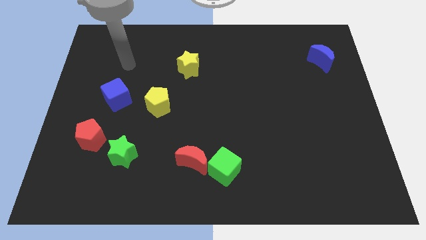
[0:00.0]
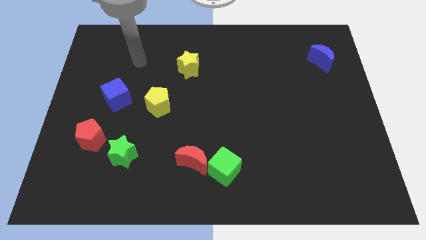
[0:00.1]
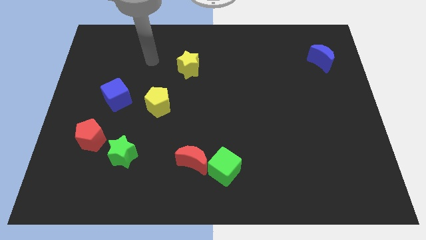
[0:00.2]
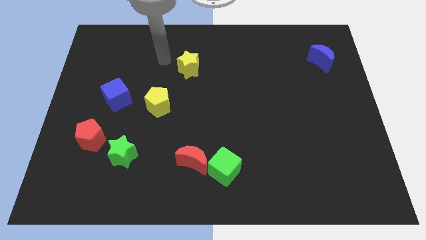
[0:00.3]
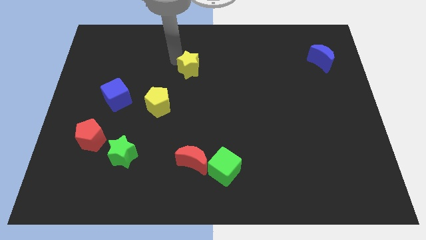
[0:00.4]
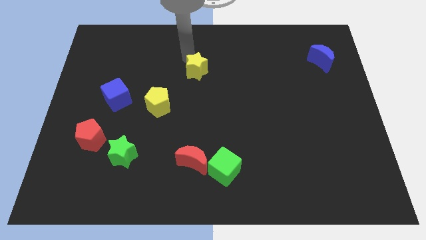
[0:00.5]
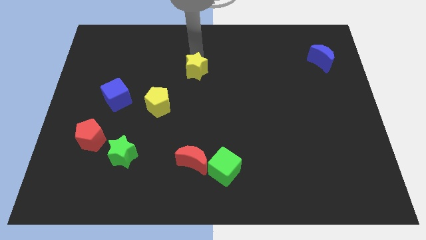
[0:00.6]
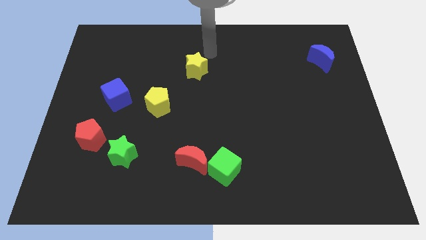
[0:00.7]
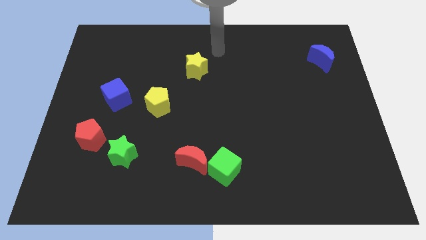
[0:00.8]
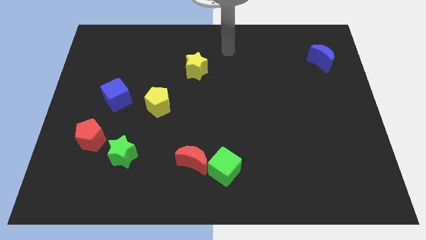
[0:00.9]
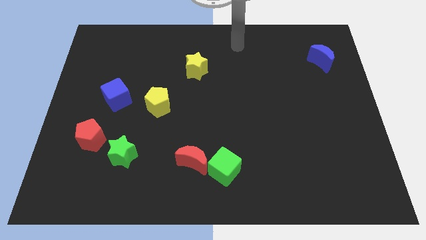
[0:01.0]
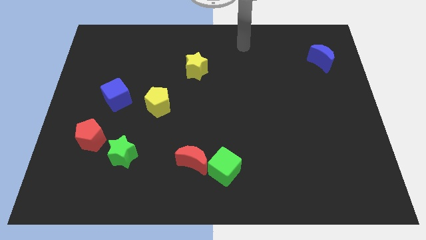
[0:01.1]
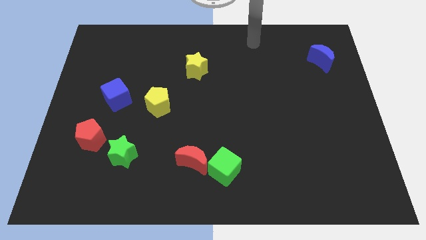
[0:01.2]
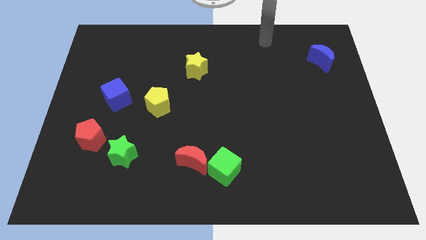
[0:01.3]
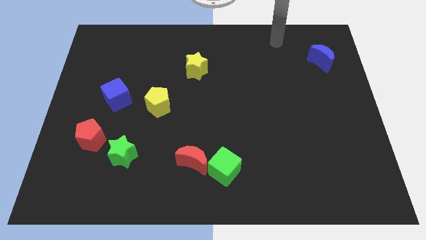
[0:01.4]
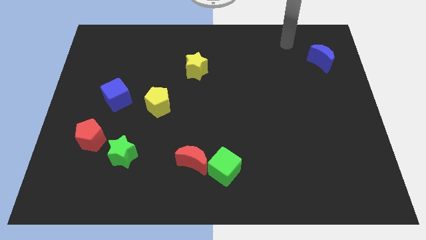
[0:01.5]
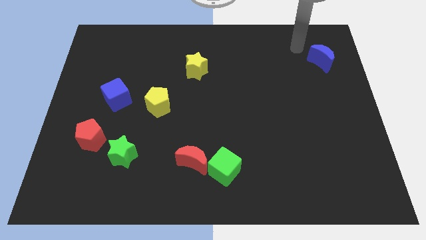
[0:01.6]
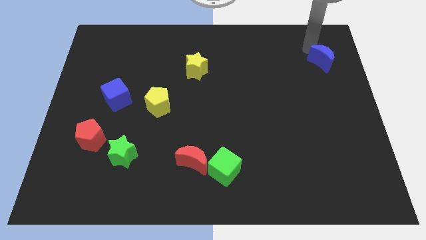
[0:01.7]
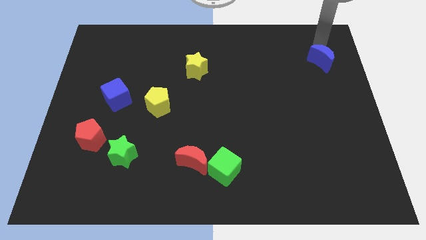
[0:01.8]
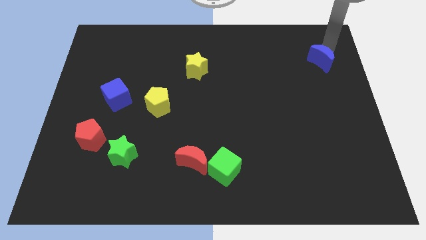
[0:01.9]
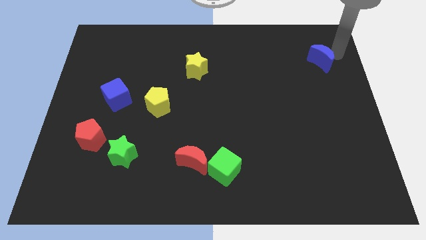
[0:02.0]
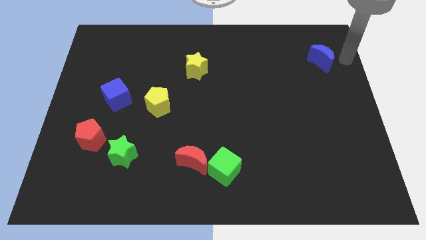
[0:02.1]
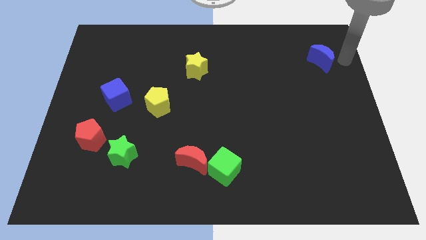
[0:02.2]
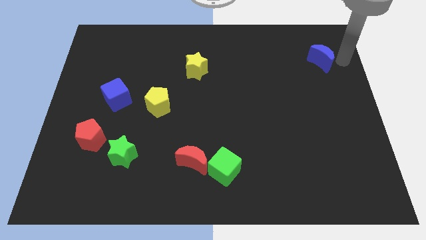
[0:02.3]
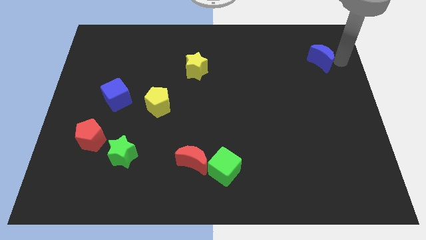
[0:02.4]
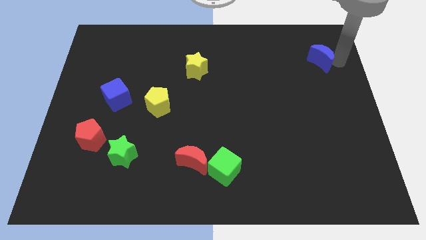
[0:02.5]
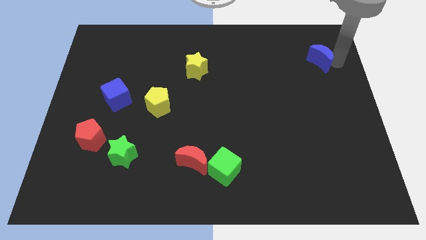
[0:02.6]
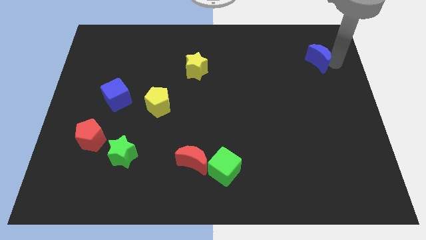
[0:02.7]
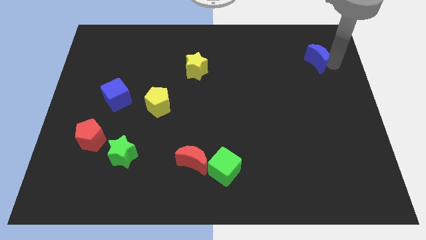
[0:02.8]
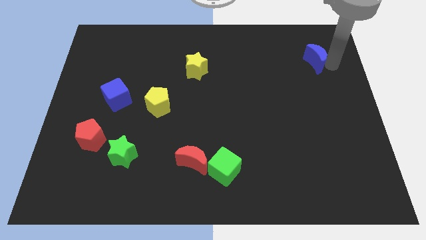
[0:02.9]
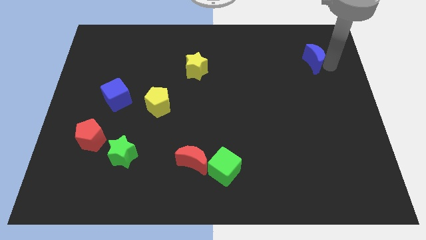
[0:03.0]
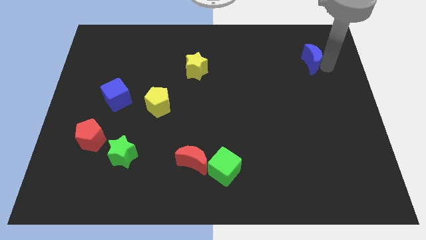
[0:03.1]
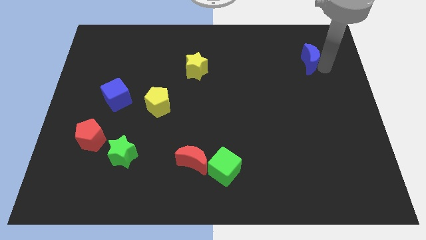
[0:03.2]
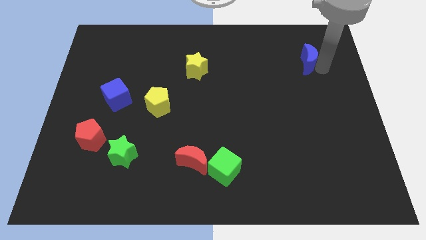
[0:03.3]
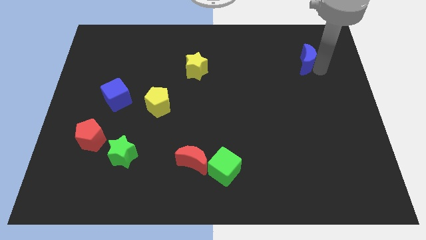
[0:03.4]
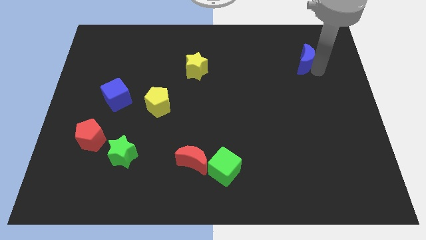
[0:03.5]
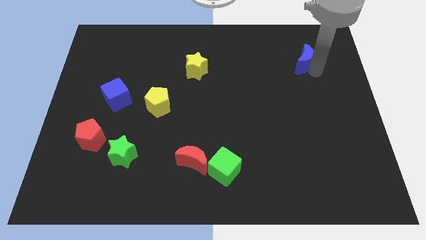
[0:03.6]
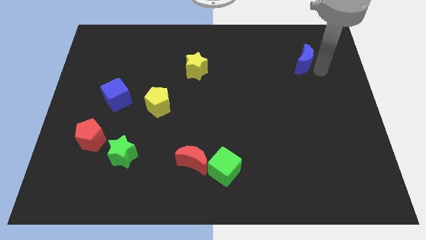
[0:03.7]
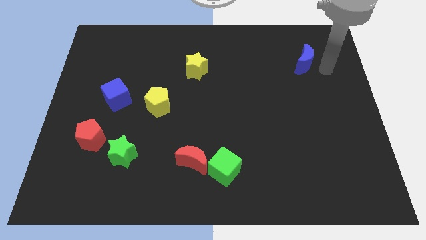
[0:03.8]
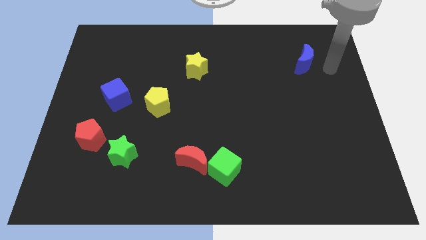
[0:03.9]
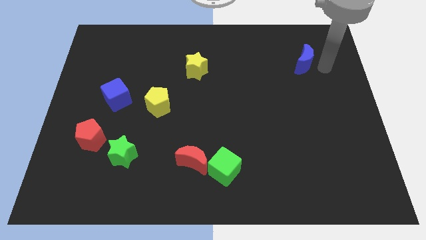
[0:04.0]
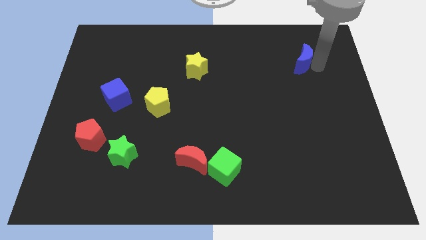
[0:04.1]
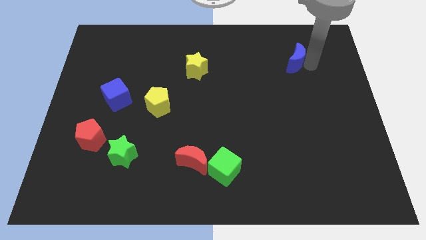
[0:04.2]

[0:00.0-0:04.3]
push the blue moon a little left

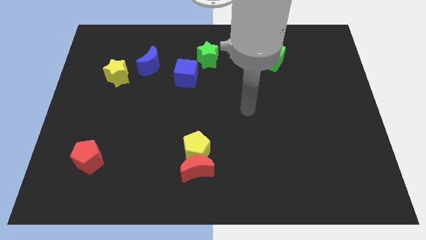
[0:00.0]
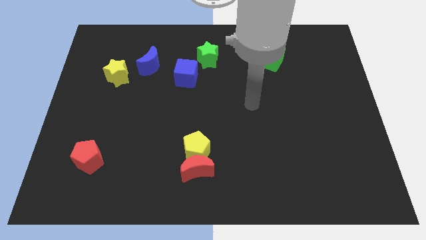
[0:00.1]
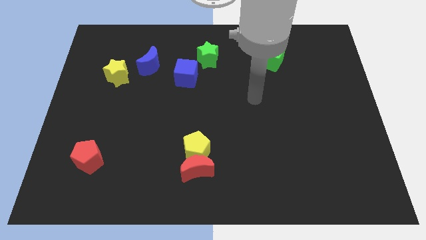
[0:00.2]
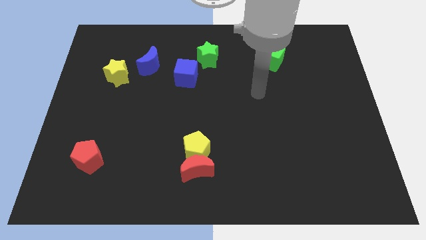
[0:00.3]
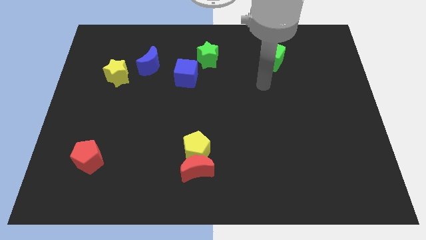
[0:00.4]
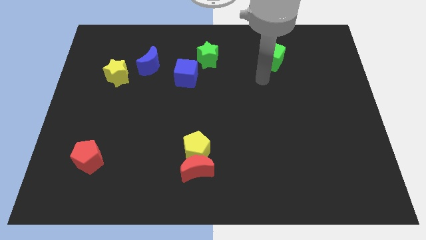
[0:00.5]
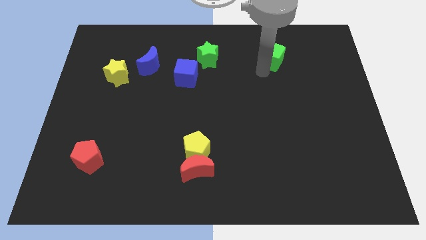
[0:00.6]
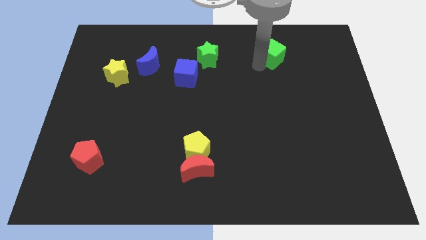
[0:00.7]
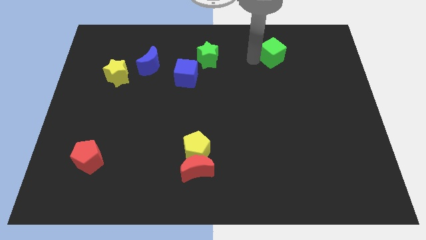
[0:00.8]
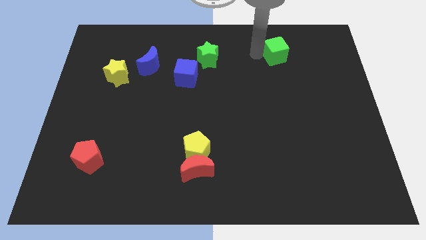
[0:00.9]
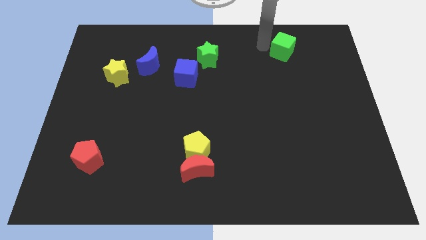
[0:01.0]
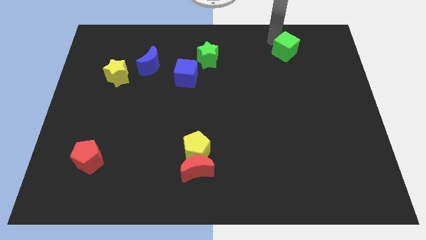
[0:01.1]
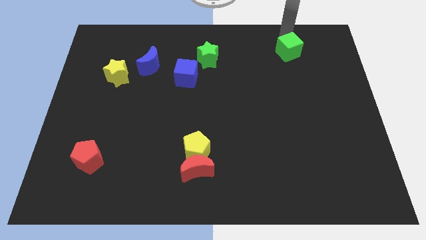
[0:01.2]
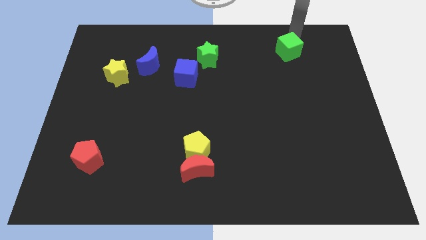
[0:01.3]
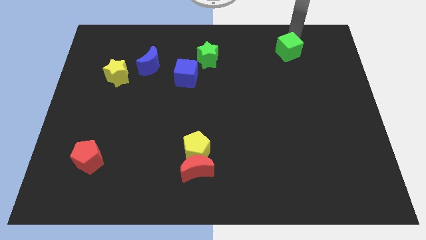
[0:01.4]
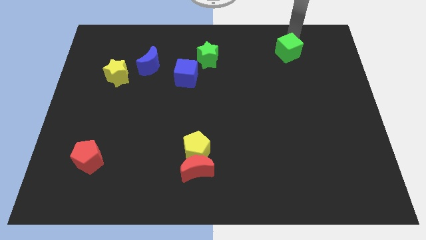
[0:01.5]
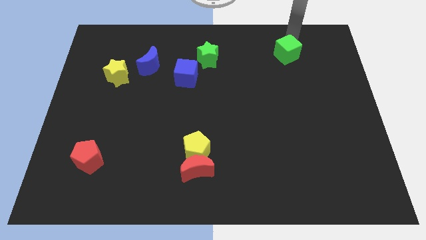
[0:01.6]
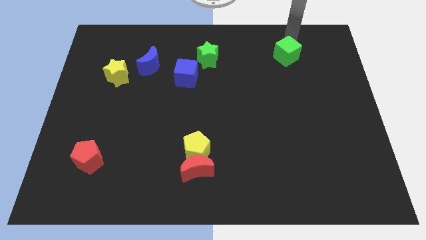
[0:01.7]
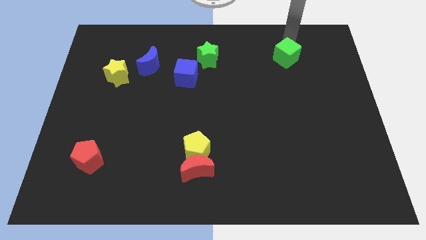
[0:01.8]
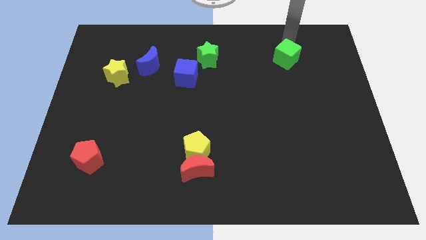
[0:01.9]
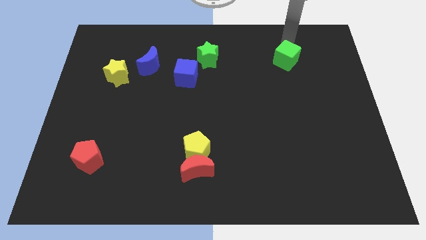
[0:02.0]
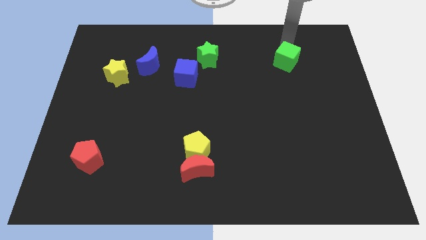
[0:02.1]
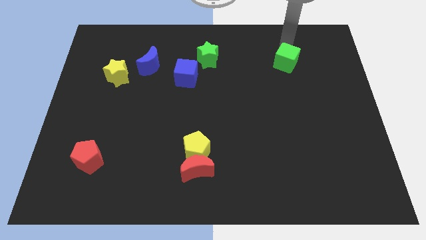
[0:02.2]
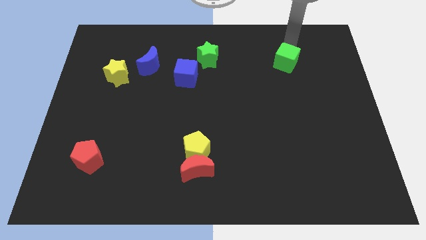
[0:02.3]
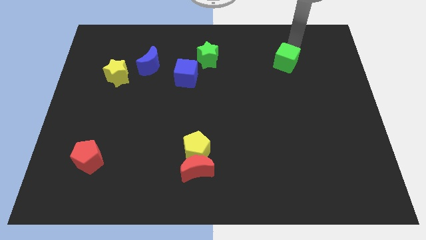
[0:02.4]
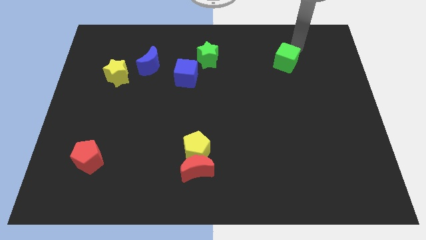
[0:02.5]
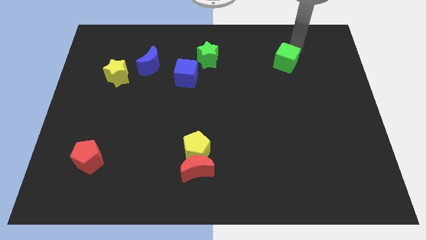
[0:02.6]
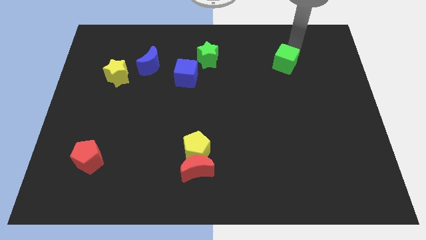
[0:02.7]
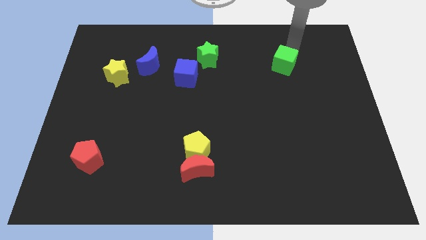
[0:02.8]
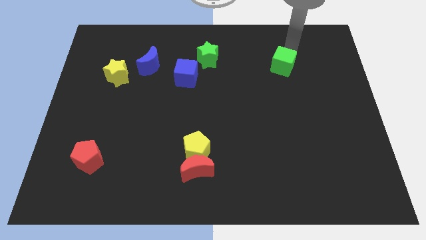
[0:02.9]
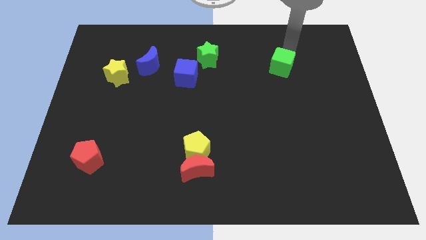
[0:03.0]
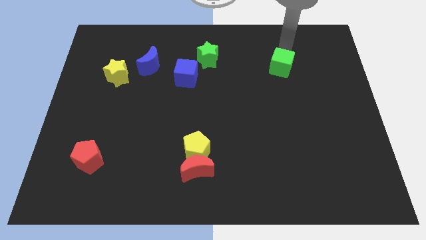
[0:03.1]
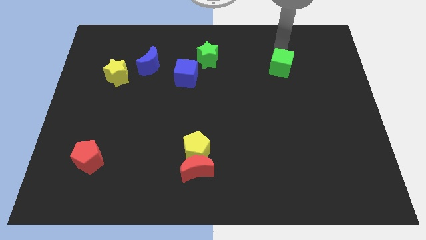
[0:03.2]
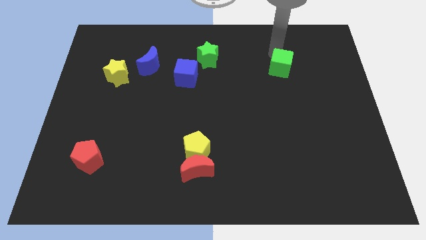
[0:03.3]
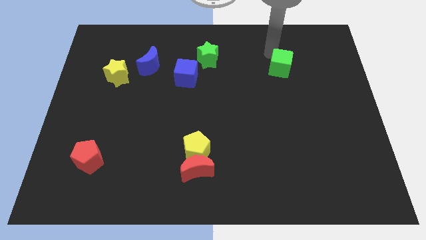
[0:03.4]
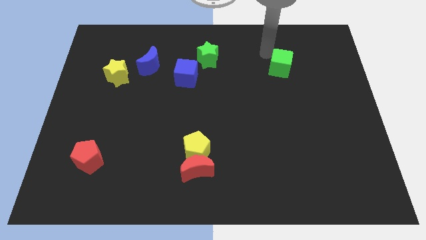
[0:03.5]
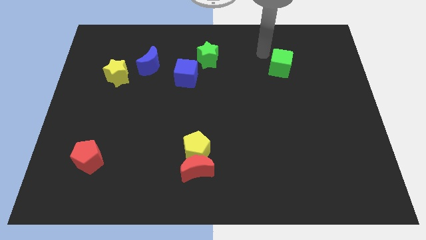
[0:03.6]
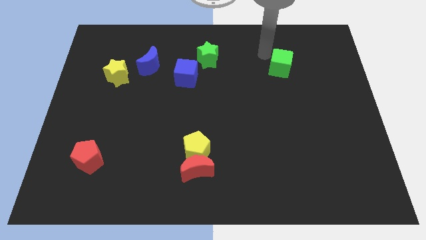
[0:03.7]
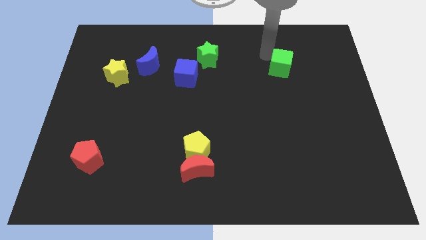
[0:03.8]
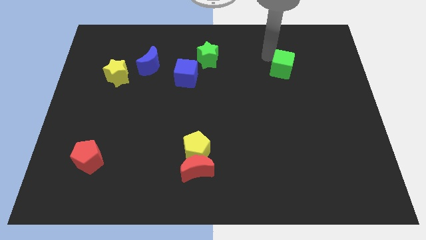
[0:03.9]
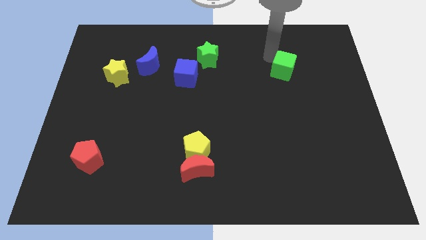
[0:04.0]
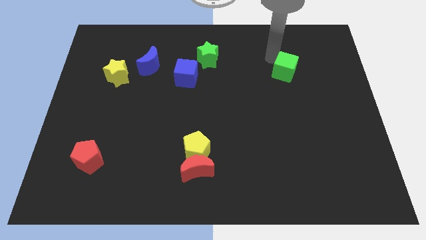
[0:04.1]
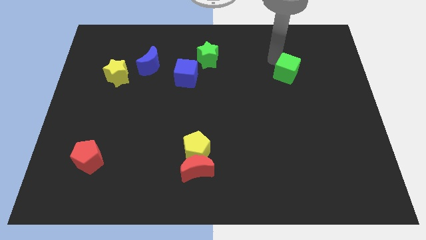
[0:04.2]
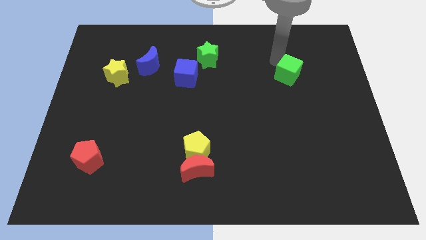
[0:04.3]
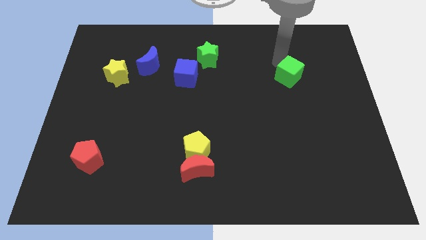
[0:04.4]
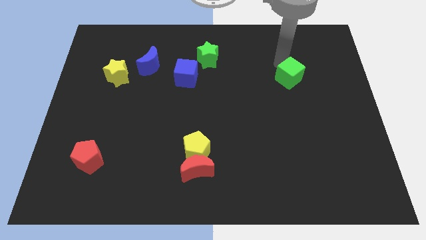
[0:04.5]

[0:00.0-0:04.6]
slightly move the green cube downwards and then right
